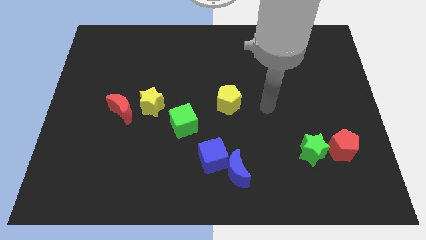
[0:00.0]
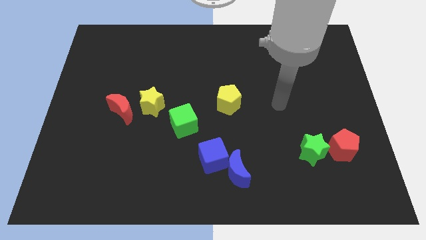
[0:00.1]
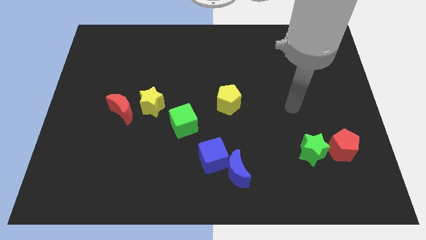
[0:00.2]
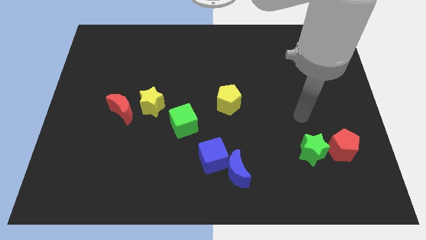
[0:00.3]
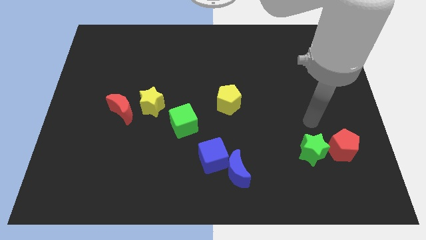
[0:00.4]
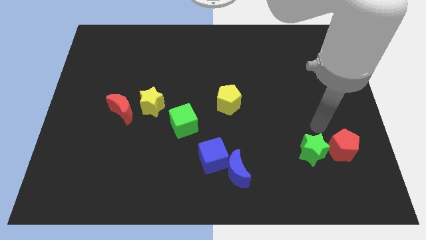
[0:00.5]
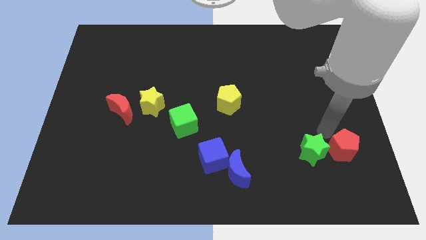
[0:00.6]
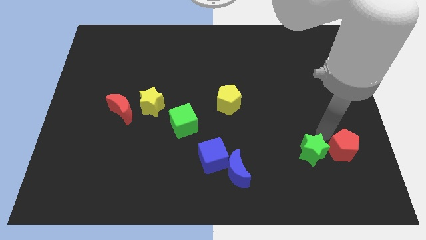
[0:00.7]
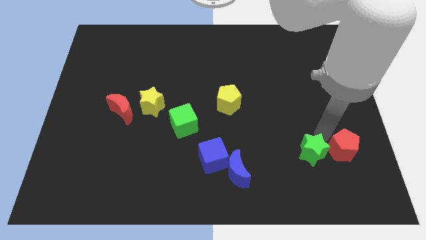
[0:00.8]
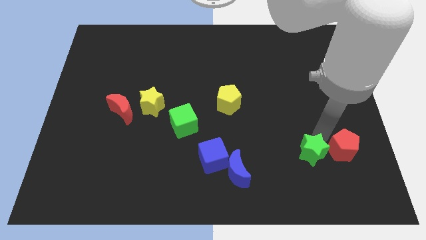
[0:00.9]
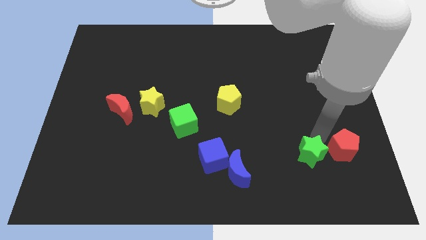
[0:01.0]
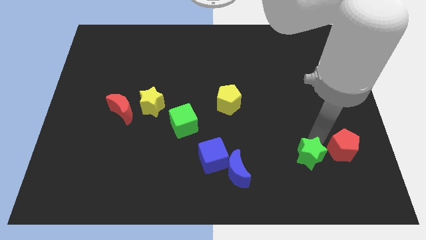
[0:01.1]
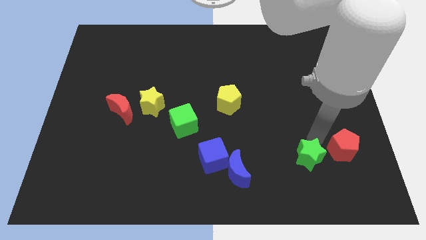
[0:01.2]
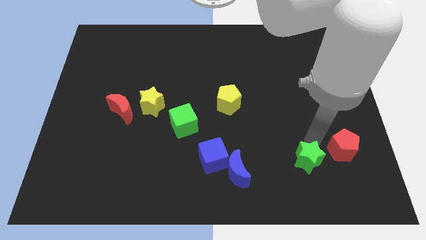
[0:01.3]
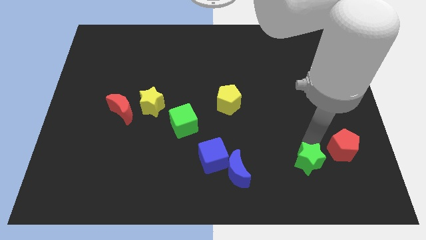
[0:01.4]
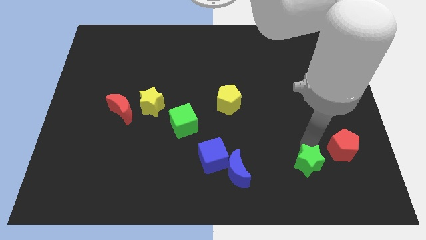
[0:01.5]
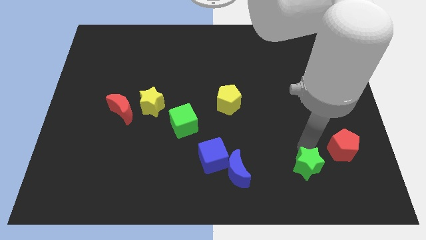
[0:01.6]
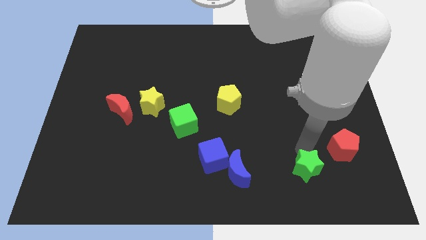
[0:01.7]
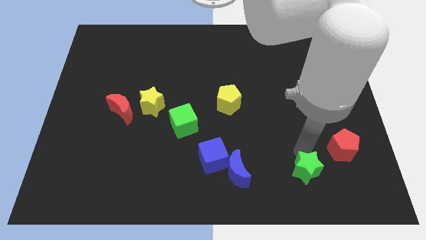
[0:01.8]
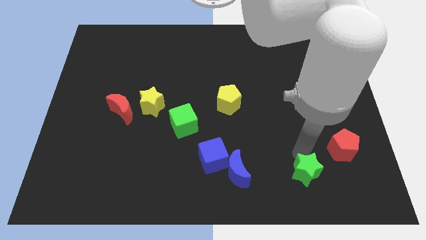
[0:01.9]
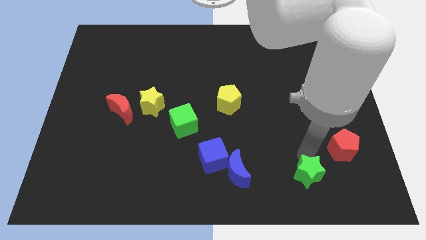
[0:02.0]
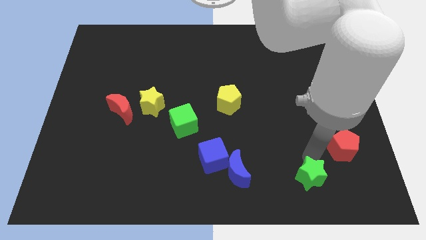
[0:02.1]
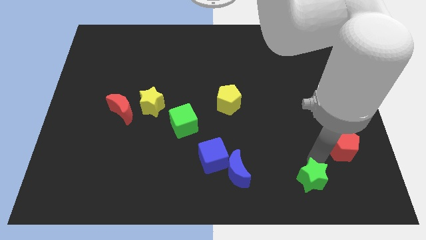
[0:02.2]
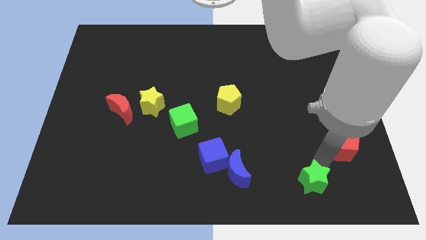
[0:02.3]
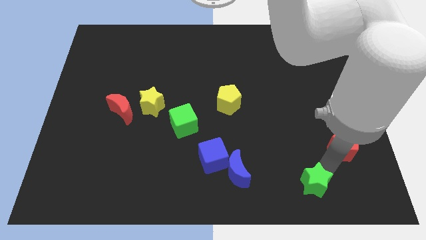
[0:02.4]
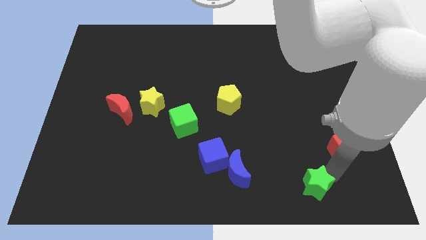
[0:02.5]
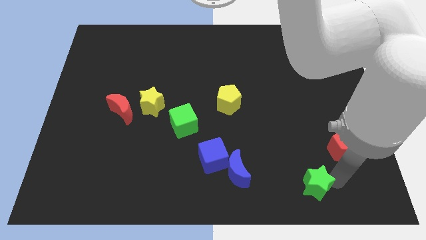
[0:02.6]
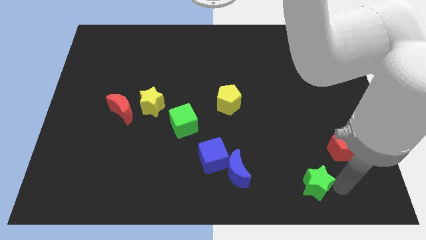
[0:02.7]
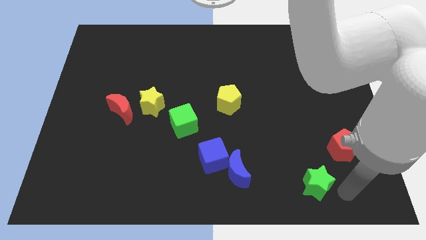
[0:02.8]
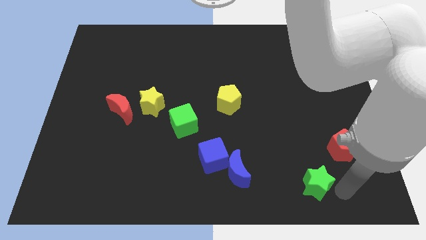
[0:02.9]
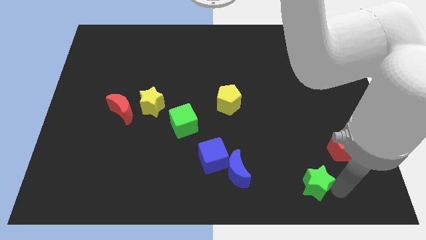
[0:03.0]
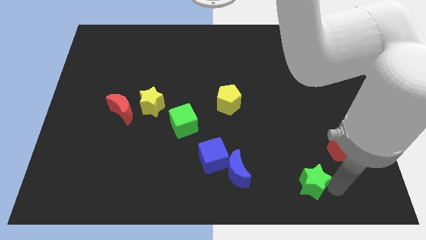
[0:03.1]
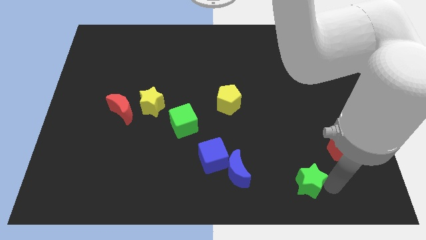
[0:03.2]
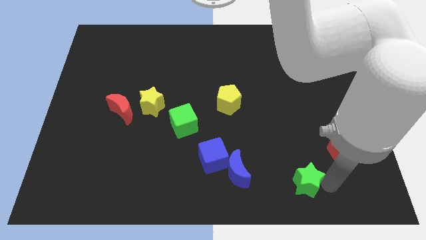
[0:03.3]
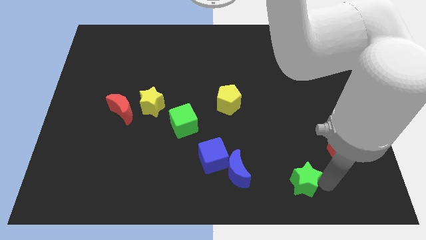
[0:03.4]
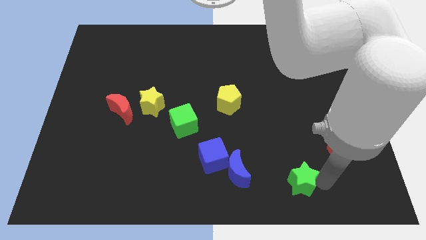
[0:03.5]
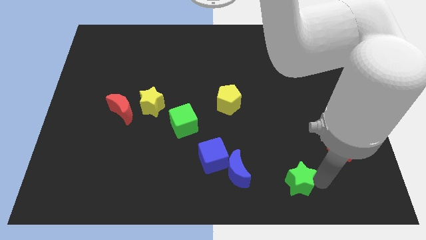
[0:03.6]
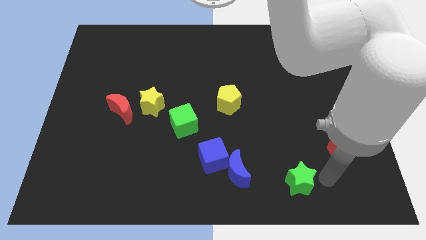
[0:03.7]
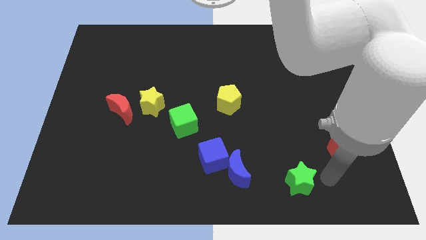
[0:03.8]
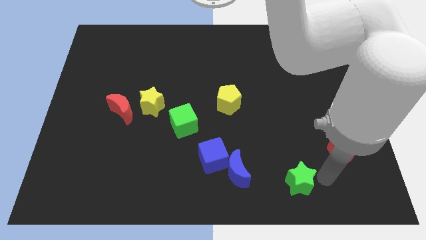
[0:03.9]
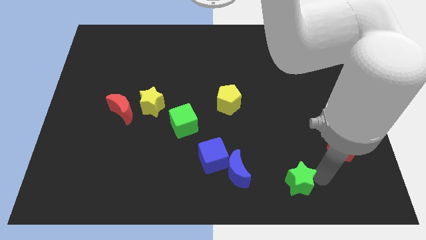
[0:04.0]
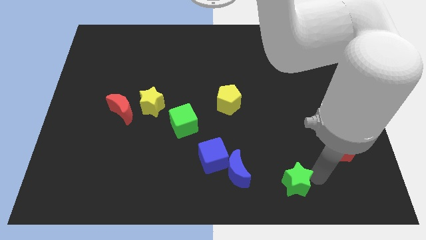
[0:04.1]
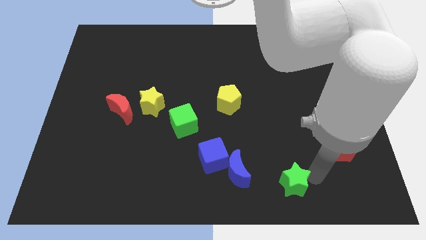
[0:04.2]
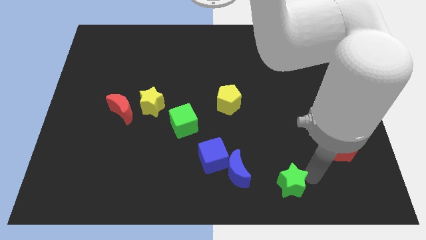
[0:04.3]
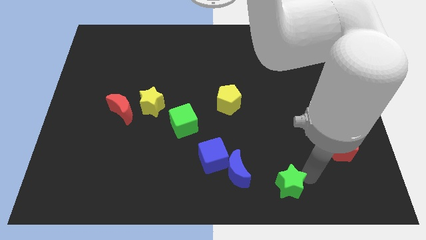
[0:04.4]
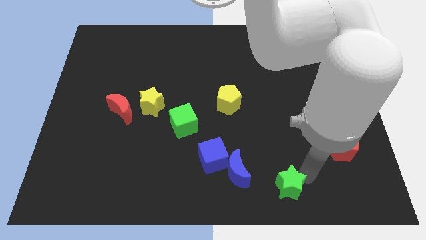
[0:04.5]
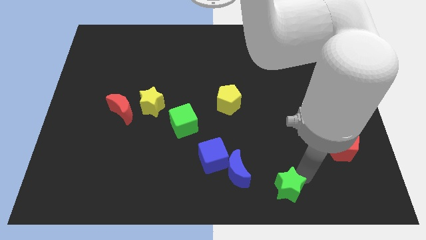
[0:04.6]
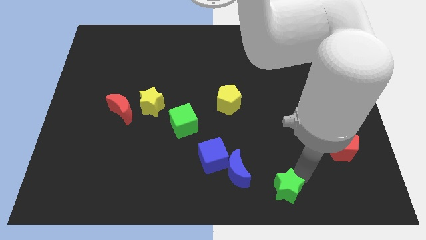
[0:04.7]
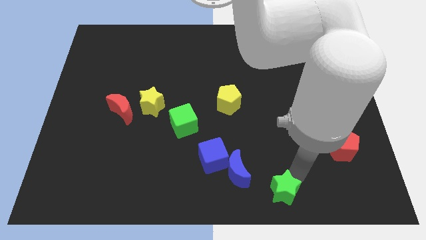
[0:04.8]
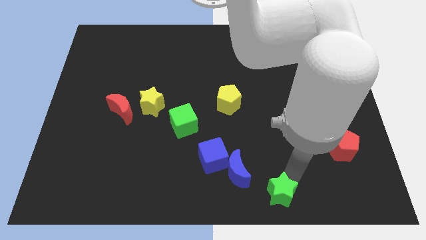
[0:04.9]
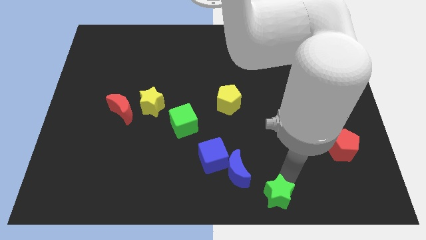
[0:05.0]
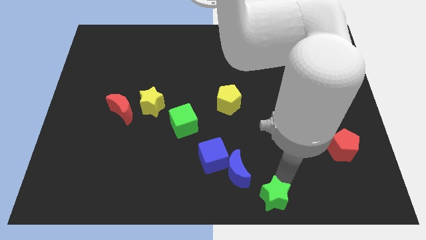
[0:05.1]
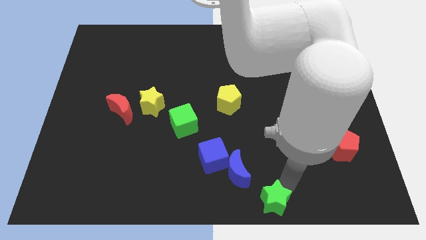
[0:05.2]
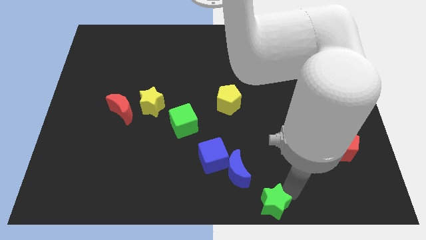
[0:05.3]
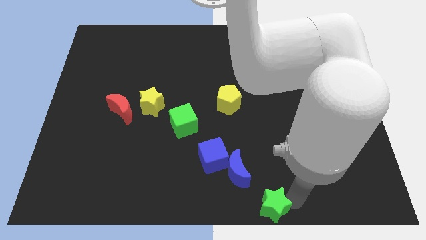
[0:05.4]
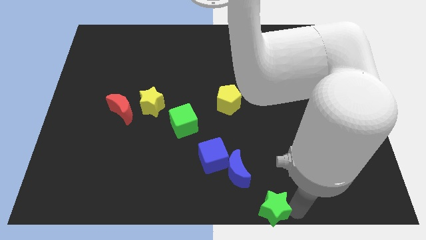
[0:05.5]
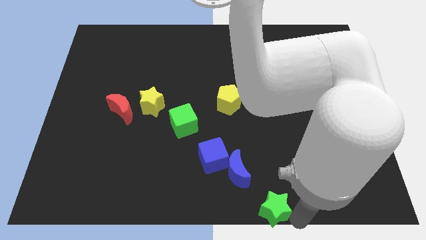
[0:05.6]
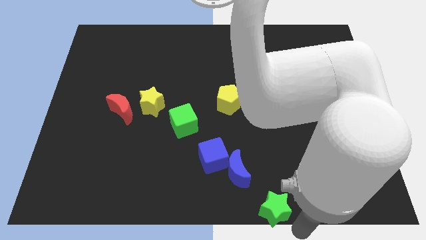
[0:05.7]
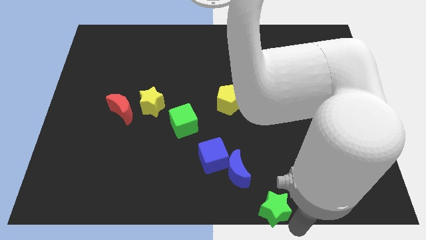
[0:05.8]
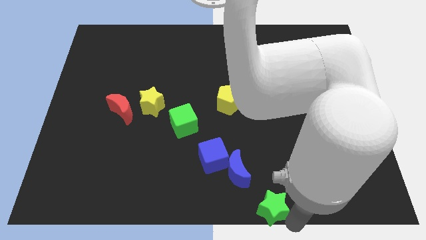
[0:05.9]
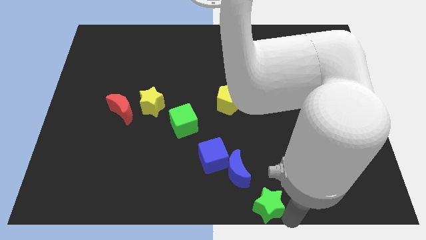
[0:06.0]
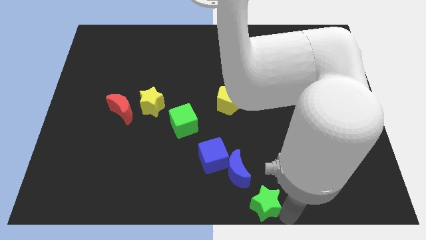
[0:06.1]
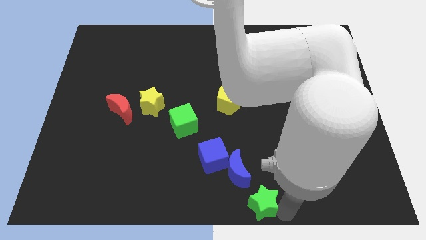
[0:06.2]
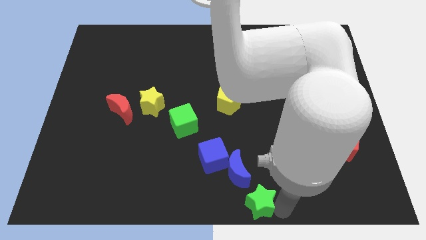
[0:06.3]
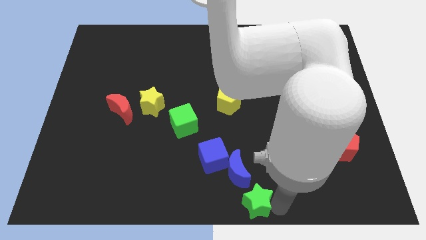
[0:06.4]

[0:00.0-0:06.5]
slide the green star to the bottom right side of the blue cube

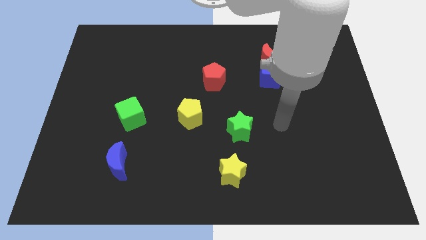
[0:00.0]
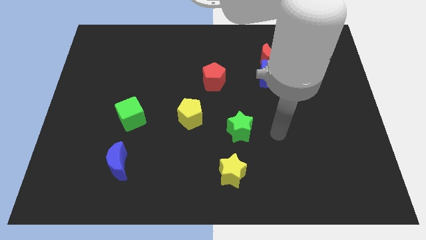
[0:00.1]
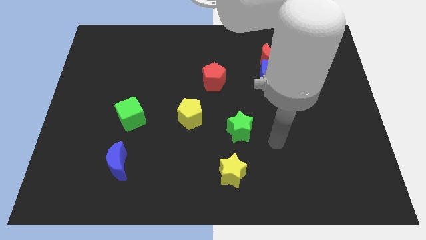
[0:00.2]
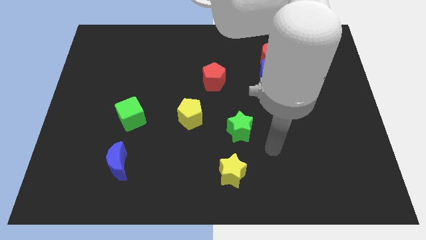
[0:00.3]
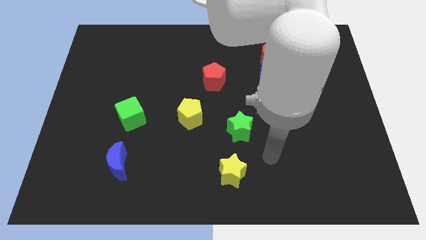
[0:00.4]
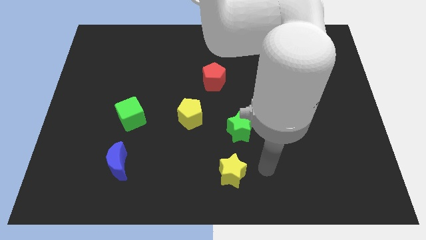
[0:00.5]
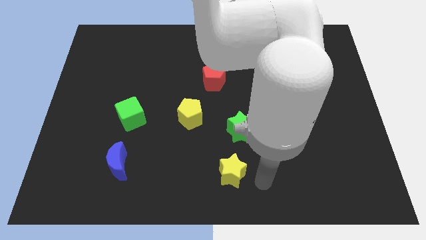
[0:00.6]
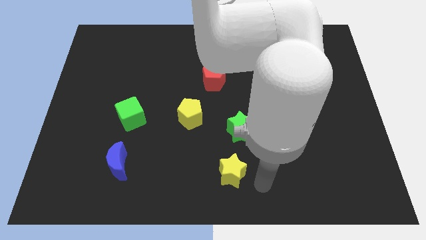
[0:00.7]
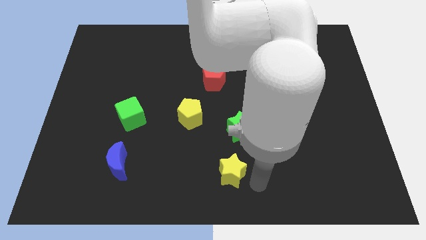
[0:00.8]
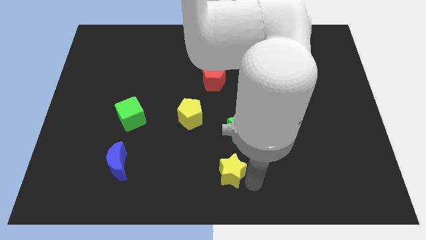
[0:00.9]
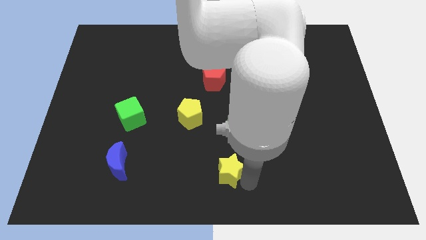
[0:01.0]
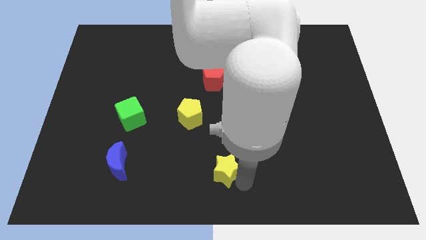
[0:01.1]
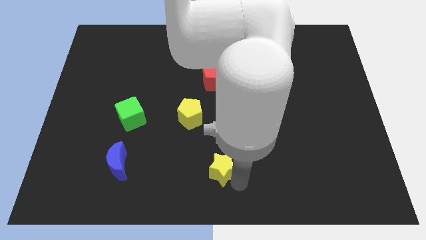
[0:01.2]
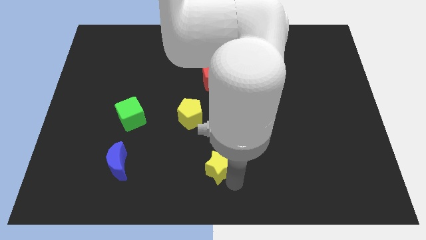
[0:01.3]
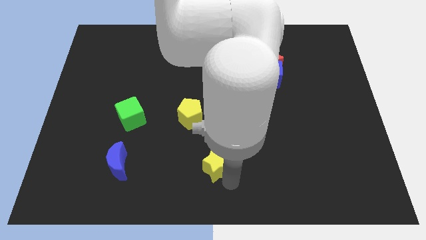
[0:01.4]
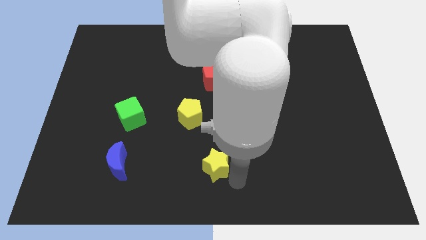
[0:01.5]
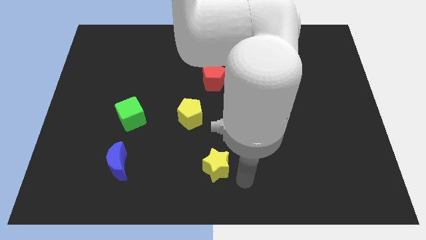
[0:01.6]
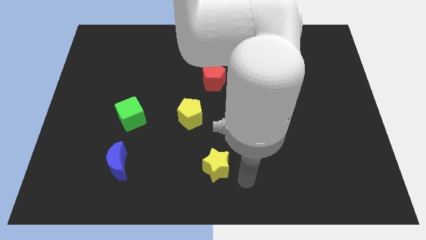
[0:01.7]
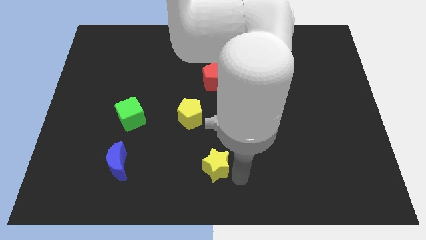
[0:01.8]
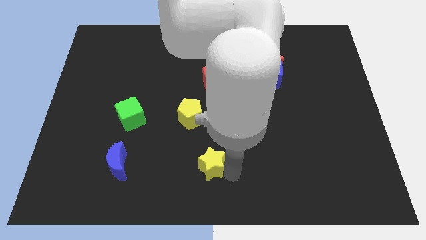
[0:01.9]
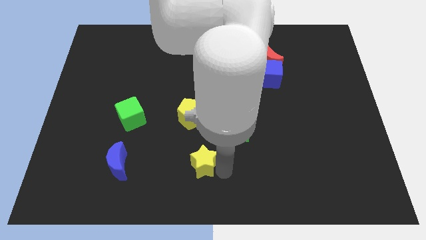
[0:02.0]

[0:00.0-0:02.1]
move the yellow star to the bottom of the yellow pentagon
